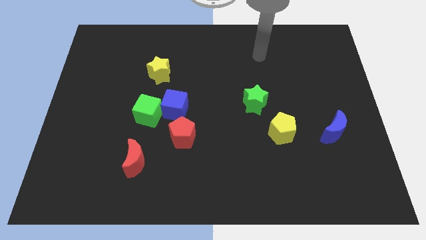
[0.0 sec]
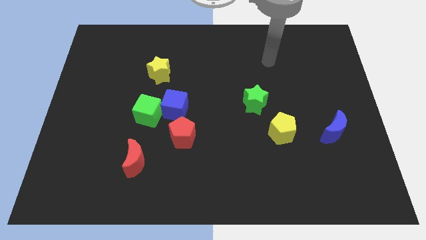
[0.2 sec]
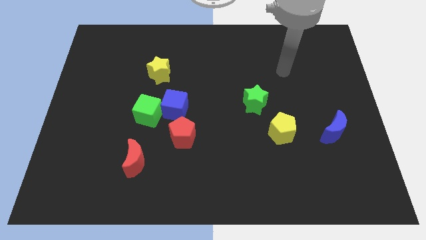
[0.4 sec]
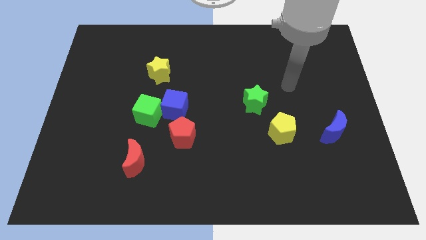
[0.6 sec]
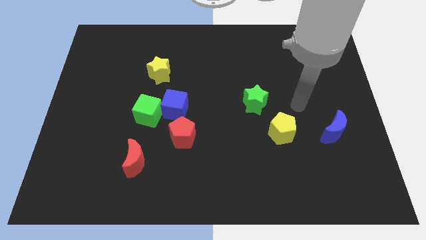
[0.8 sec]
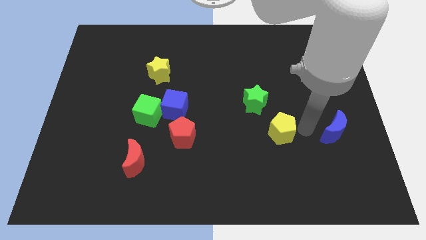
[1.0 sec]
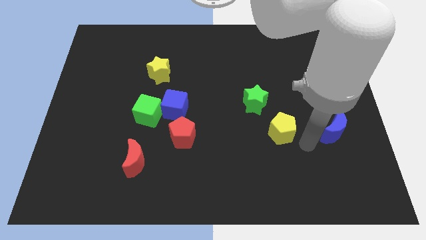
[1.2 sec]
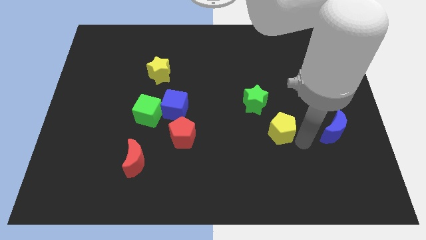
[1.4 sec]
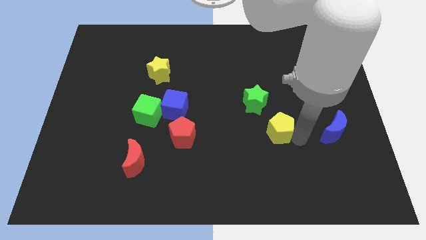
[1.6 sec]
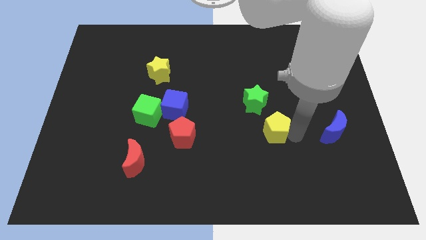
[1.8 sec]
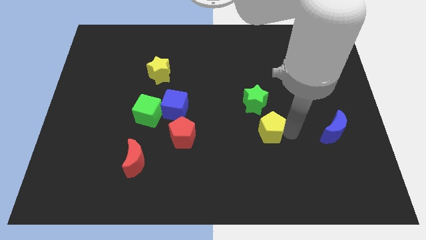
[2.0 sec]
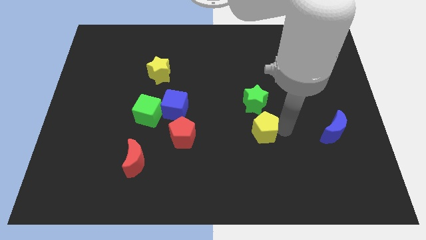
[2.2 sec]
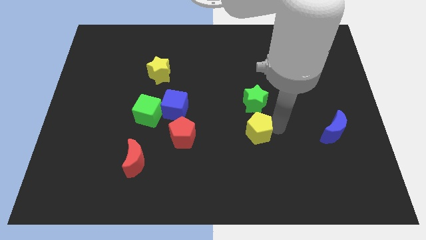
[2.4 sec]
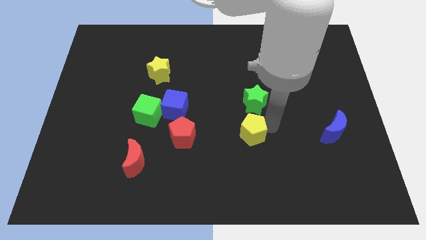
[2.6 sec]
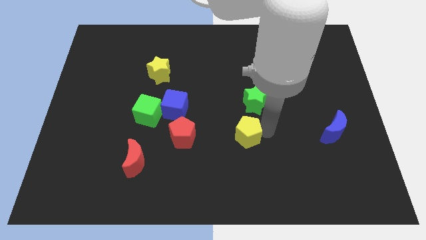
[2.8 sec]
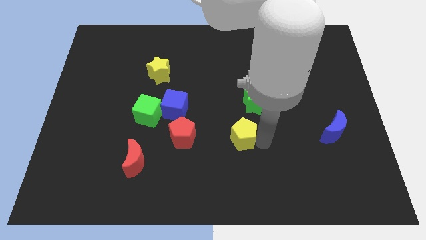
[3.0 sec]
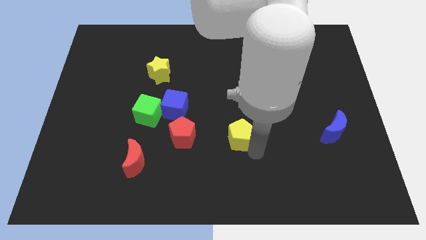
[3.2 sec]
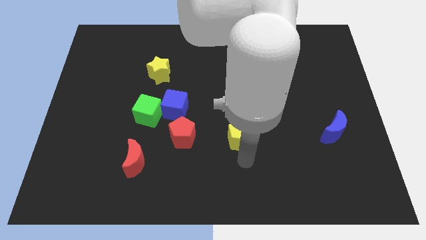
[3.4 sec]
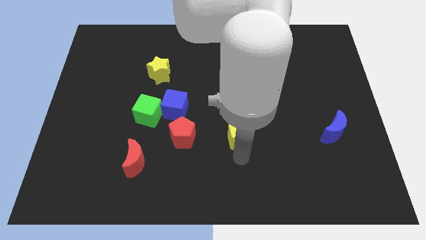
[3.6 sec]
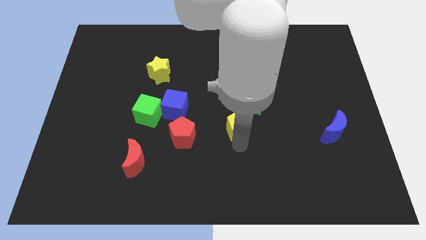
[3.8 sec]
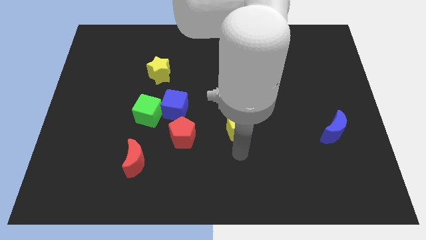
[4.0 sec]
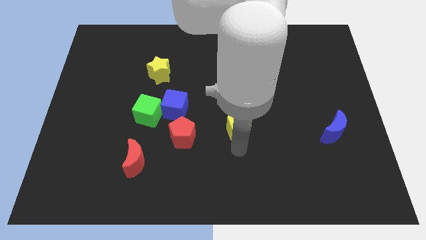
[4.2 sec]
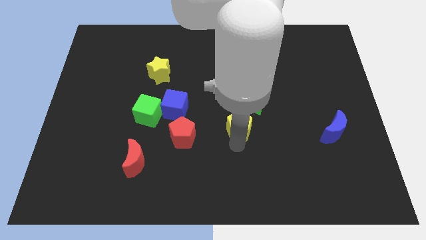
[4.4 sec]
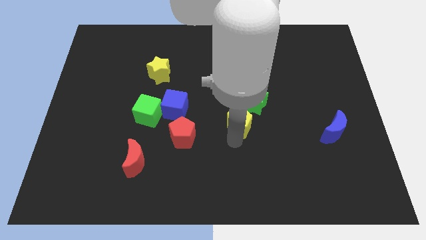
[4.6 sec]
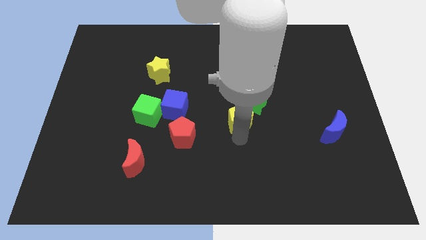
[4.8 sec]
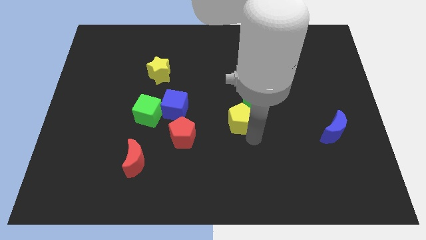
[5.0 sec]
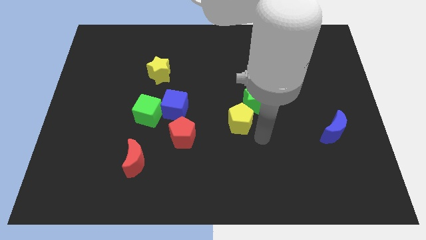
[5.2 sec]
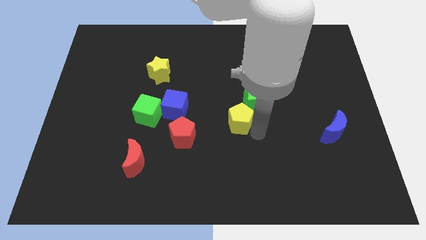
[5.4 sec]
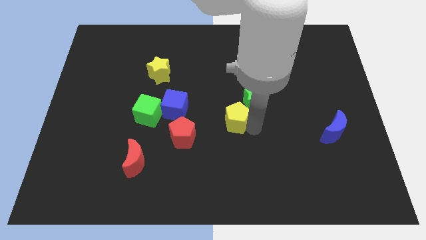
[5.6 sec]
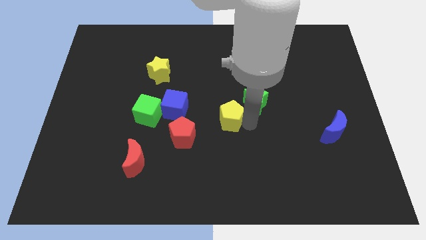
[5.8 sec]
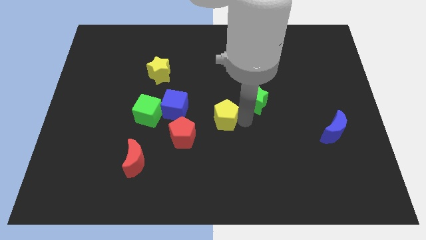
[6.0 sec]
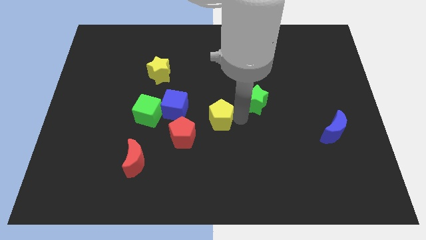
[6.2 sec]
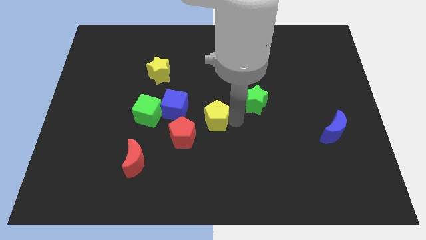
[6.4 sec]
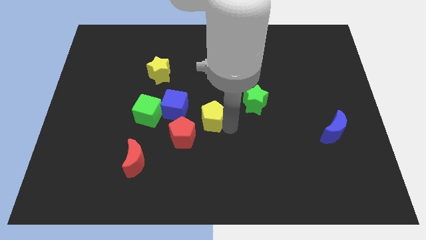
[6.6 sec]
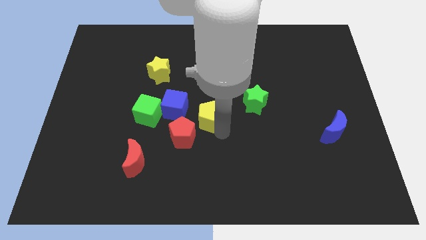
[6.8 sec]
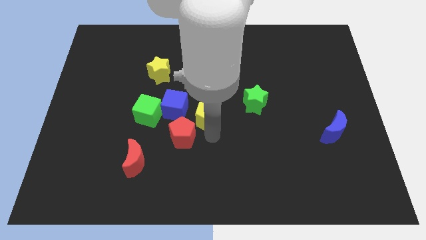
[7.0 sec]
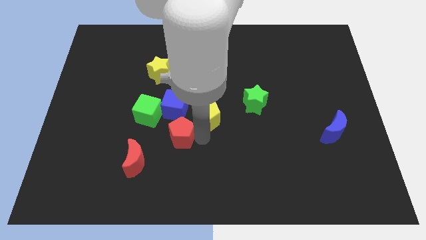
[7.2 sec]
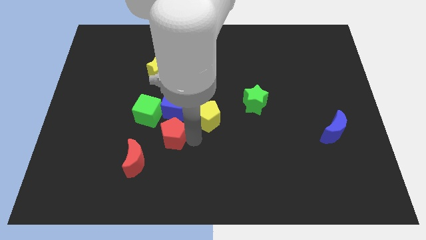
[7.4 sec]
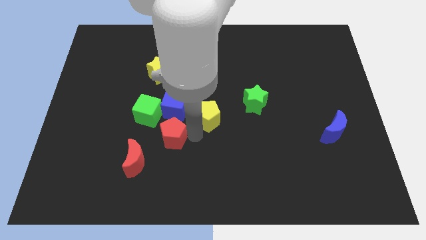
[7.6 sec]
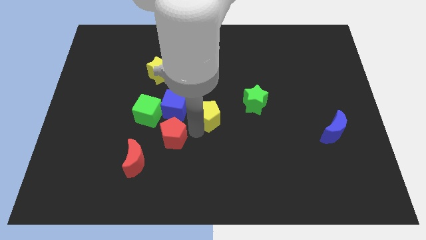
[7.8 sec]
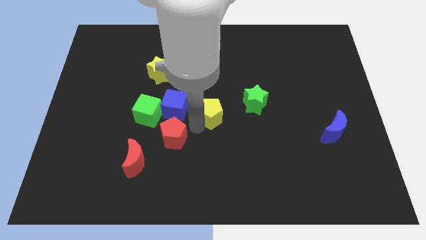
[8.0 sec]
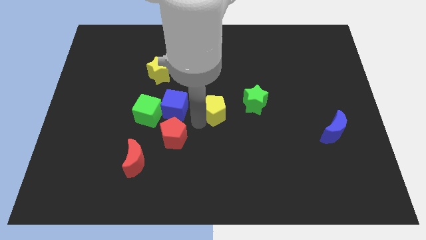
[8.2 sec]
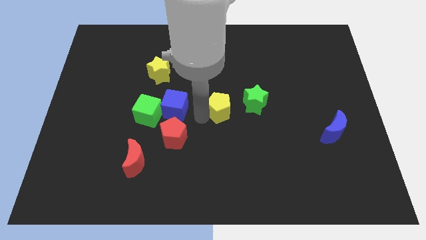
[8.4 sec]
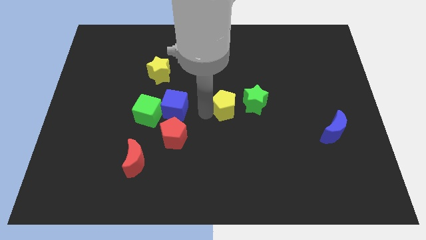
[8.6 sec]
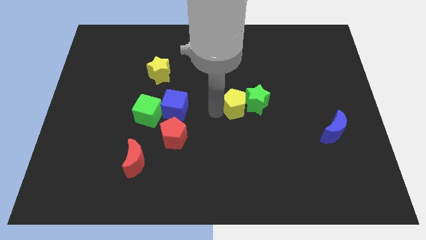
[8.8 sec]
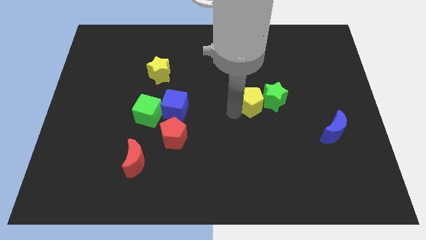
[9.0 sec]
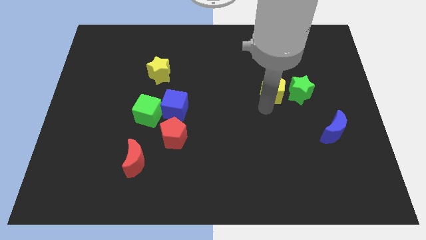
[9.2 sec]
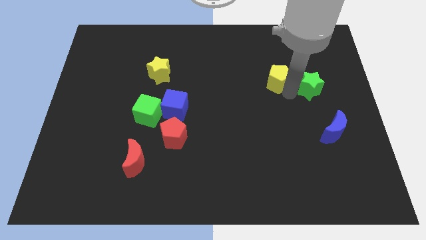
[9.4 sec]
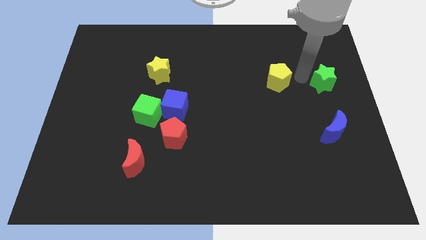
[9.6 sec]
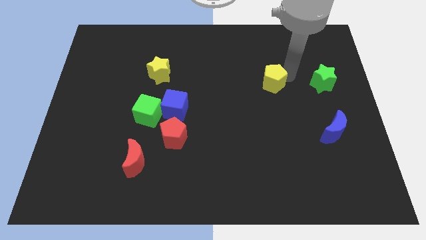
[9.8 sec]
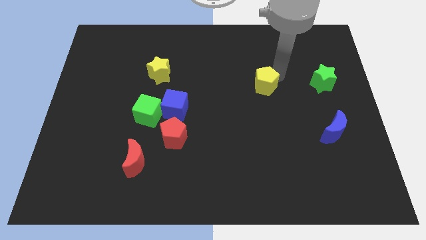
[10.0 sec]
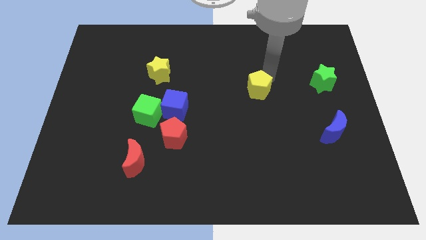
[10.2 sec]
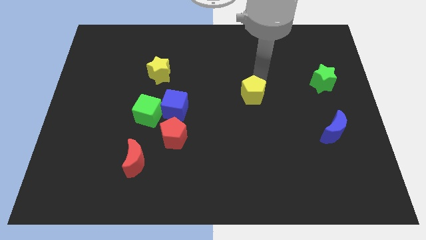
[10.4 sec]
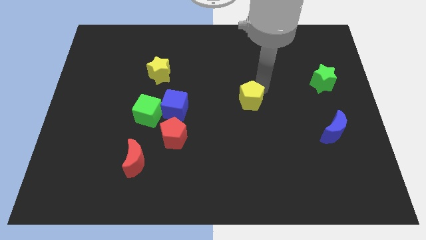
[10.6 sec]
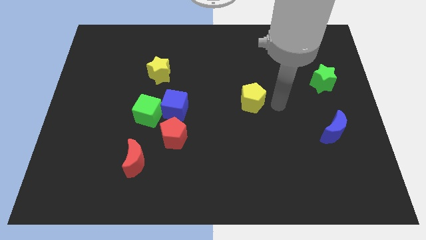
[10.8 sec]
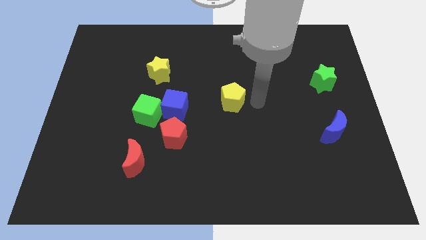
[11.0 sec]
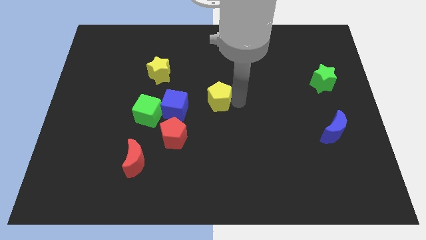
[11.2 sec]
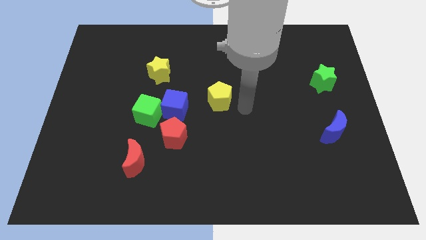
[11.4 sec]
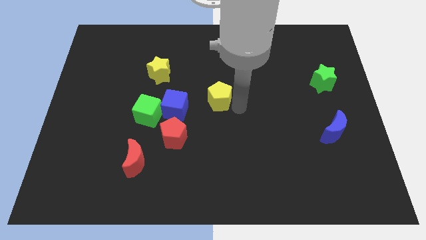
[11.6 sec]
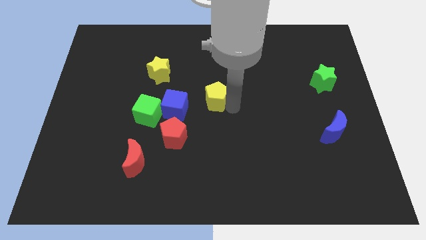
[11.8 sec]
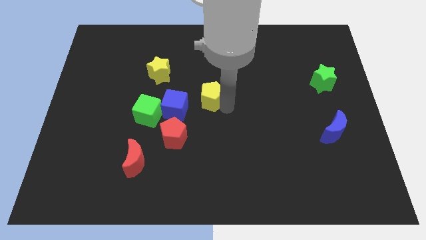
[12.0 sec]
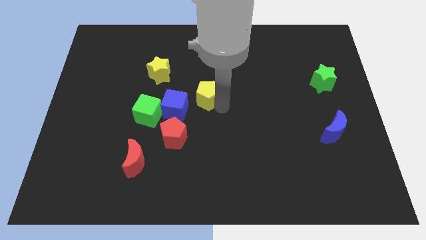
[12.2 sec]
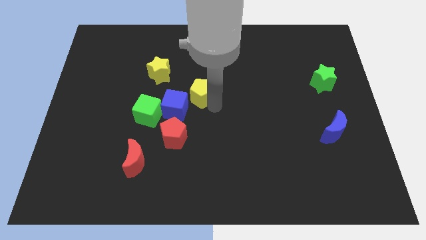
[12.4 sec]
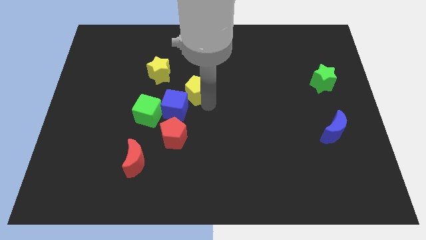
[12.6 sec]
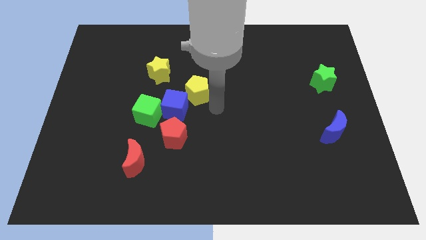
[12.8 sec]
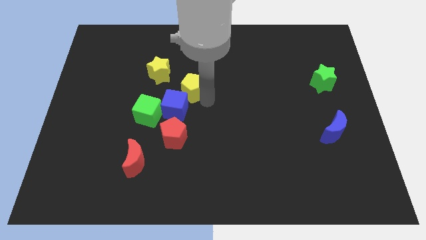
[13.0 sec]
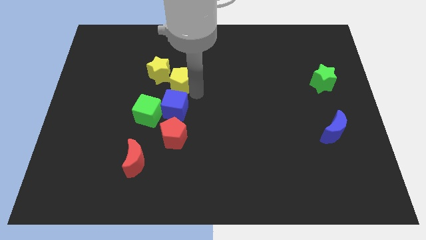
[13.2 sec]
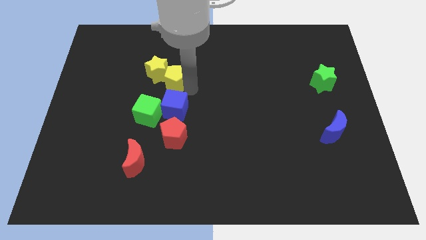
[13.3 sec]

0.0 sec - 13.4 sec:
put the yellow pentagon next to the yellow star

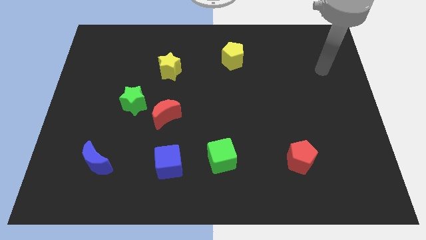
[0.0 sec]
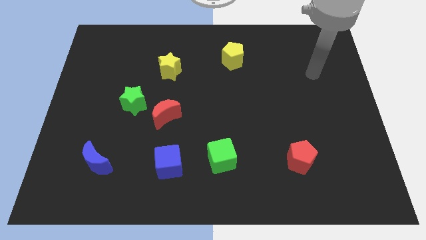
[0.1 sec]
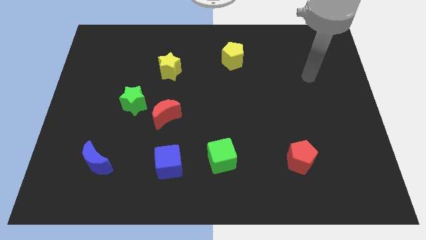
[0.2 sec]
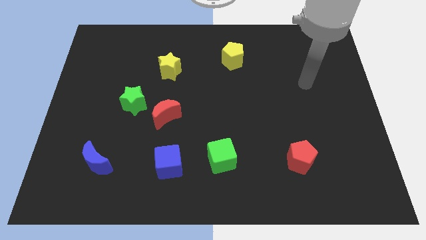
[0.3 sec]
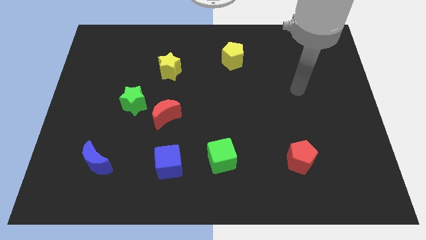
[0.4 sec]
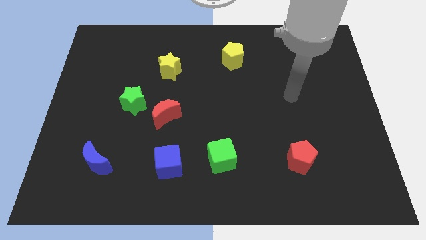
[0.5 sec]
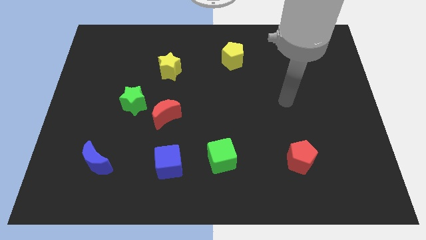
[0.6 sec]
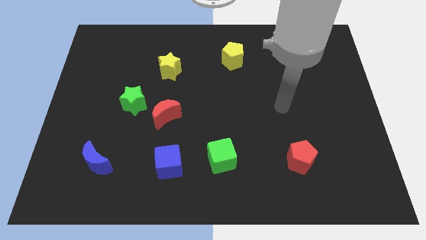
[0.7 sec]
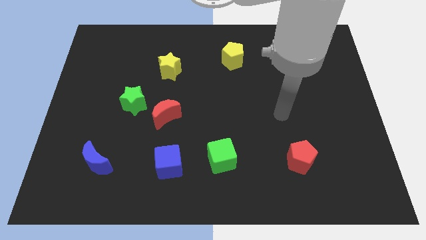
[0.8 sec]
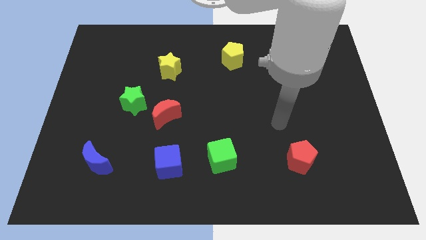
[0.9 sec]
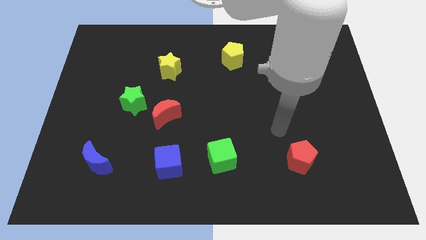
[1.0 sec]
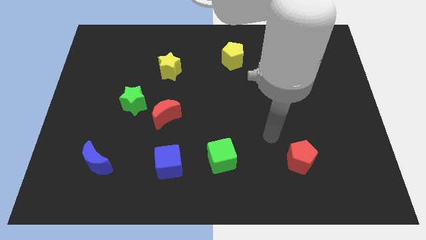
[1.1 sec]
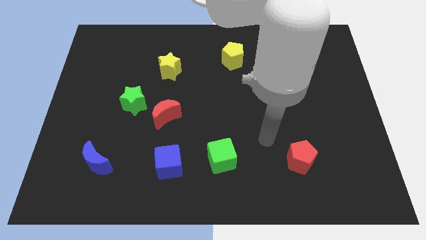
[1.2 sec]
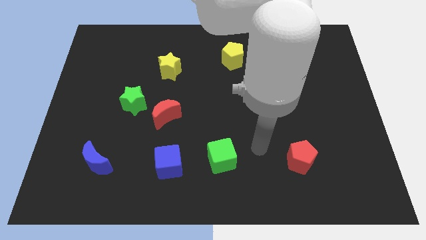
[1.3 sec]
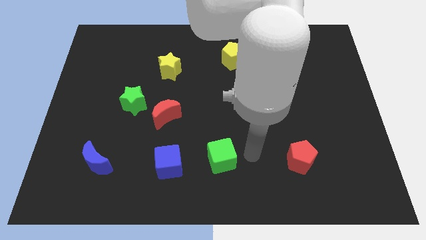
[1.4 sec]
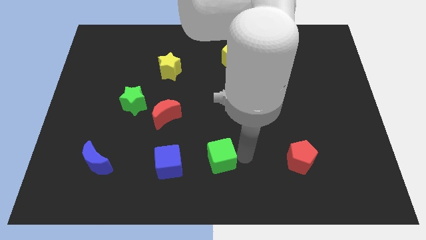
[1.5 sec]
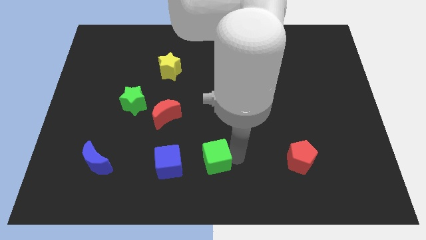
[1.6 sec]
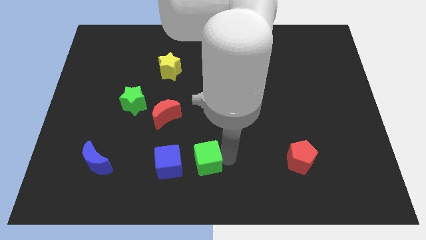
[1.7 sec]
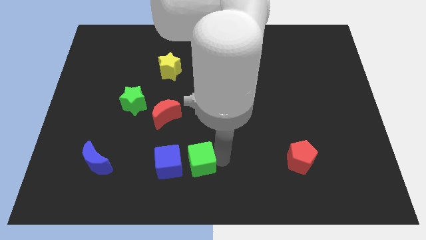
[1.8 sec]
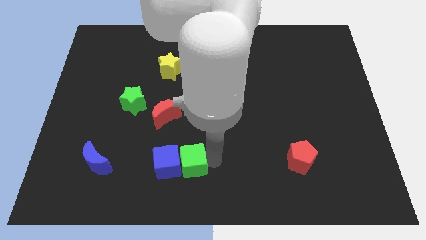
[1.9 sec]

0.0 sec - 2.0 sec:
slide the green cube to the blue cube
